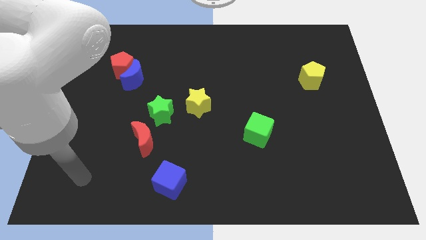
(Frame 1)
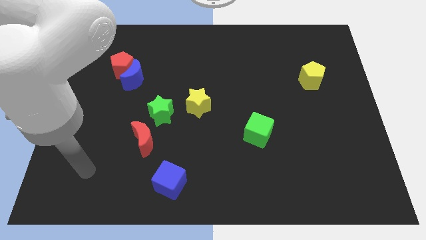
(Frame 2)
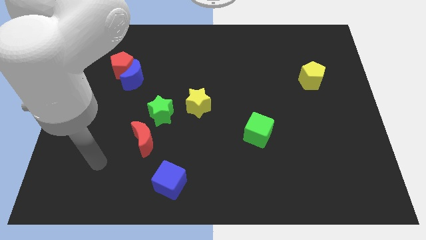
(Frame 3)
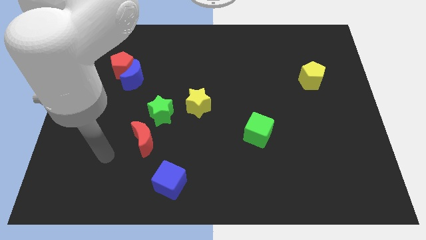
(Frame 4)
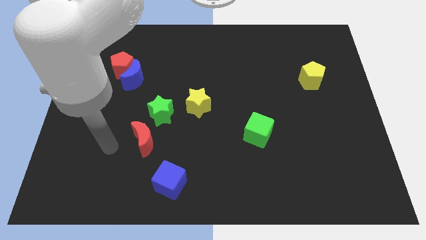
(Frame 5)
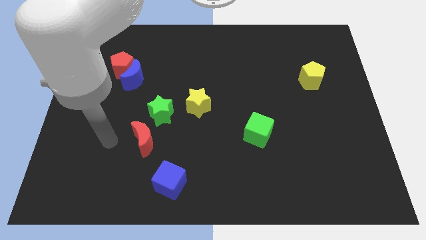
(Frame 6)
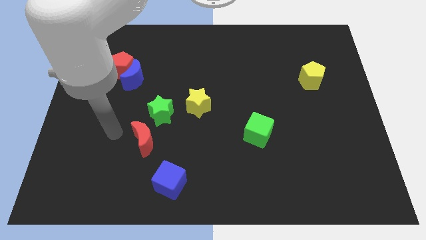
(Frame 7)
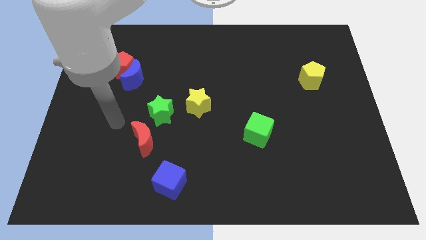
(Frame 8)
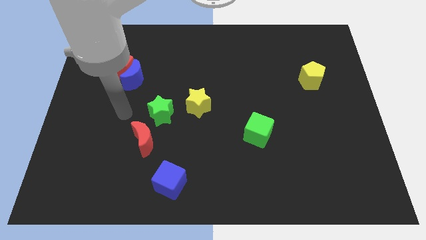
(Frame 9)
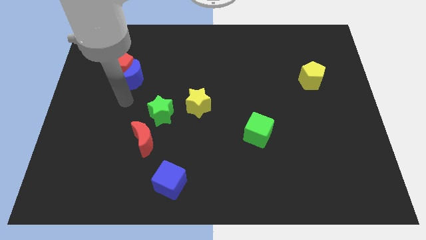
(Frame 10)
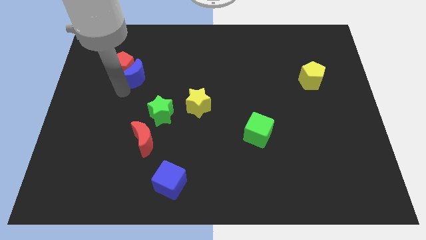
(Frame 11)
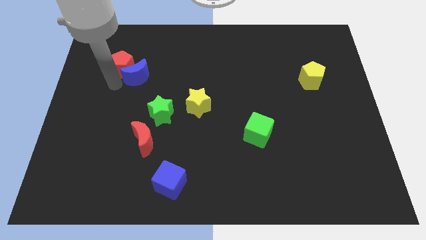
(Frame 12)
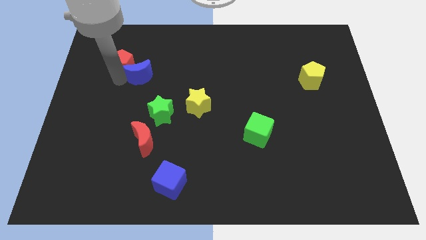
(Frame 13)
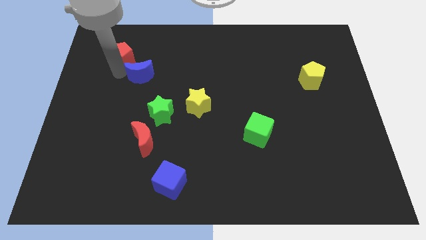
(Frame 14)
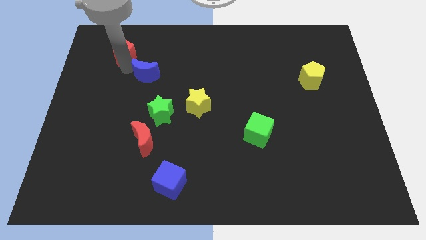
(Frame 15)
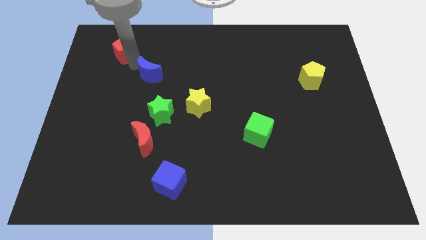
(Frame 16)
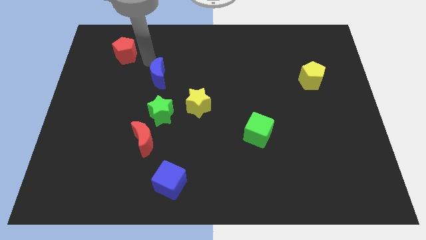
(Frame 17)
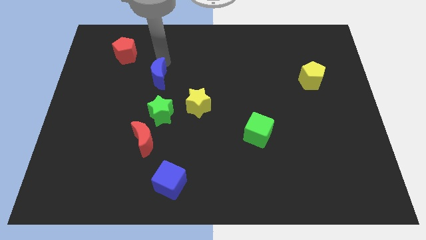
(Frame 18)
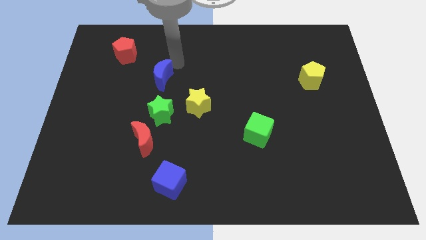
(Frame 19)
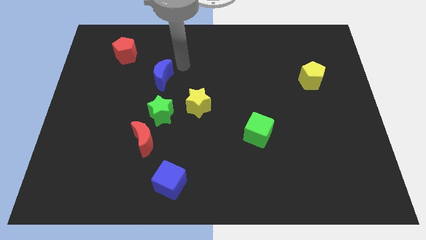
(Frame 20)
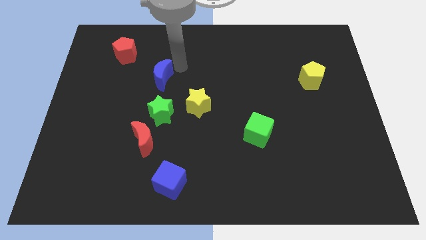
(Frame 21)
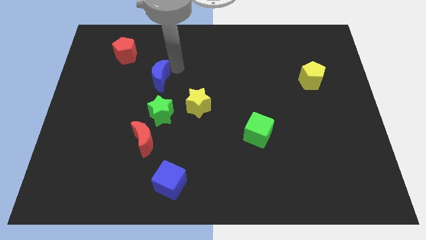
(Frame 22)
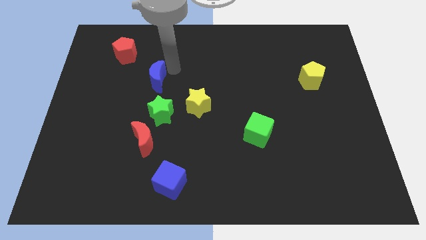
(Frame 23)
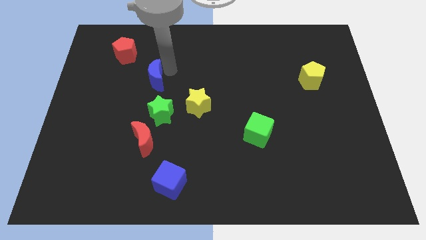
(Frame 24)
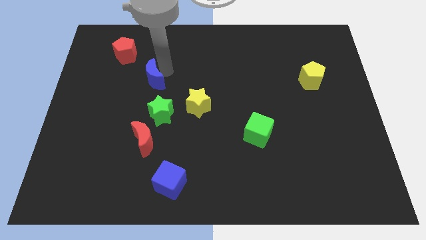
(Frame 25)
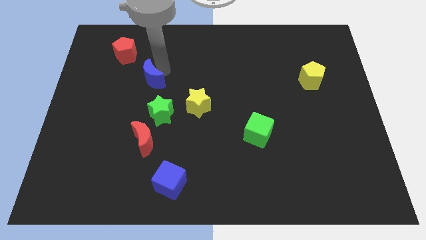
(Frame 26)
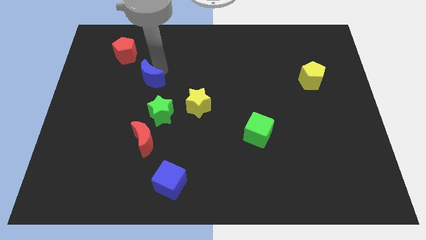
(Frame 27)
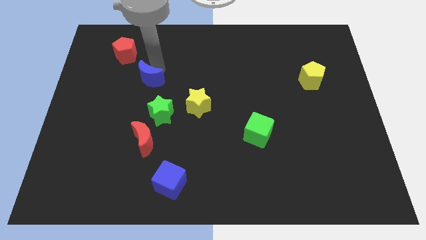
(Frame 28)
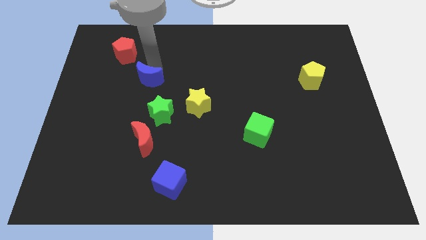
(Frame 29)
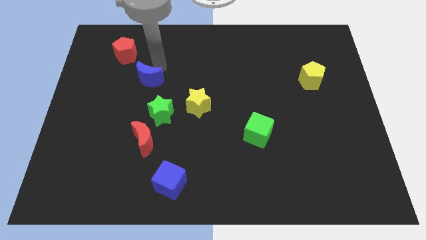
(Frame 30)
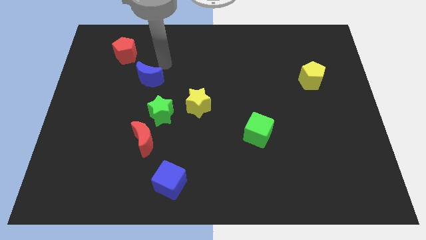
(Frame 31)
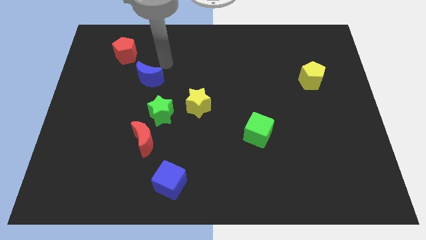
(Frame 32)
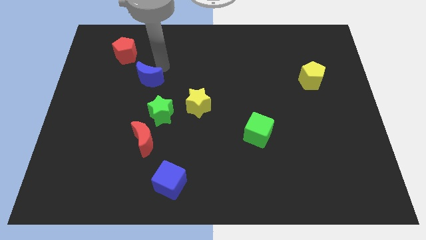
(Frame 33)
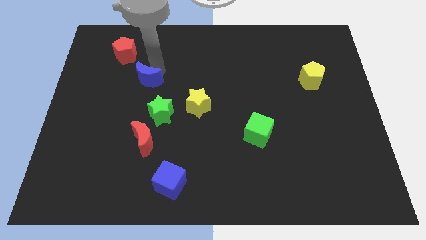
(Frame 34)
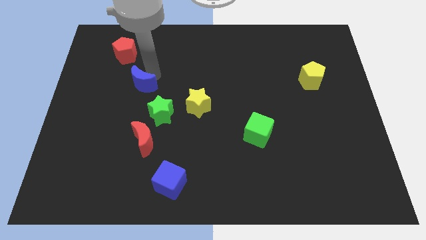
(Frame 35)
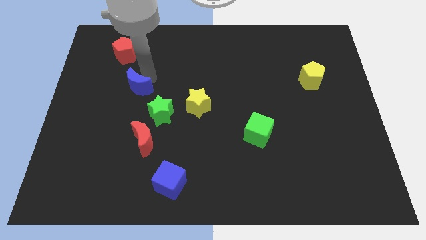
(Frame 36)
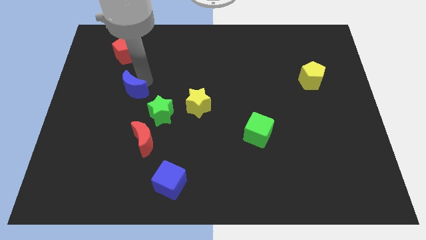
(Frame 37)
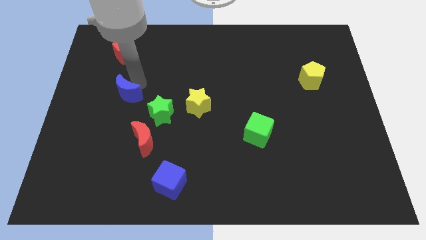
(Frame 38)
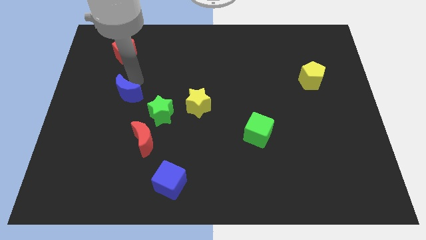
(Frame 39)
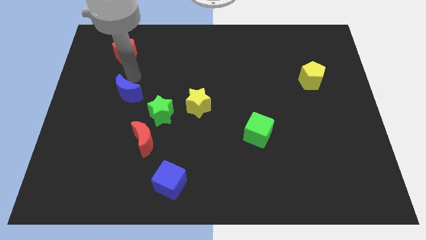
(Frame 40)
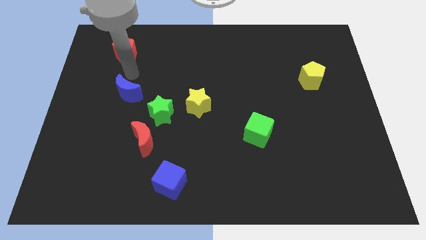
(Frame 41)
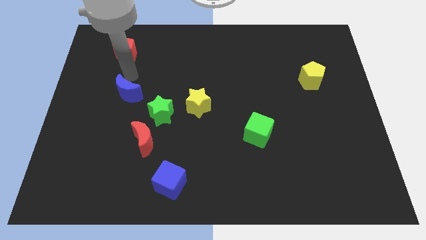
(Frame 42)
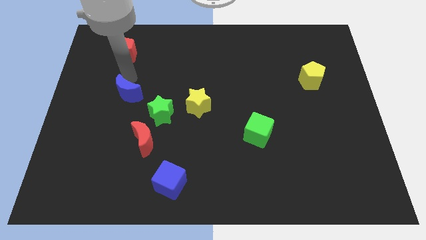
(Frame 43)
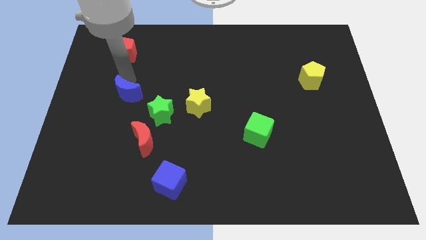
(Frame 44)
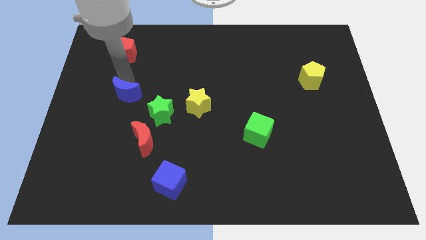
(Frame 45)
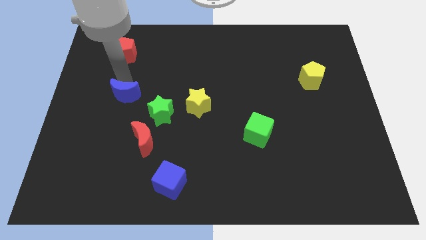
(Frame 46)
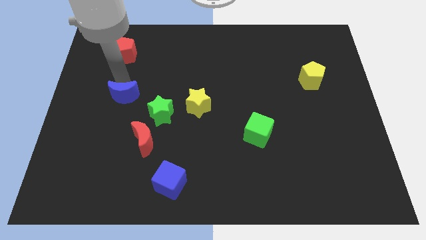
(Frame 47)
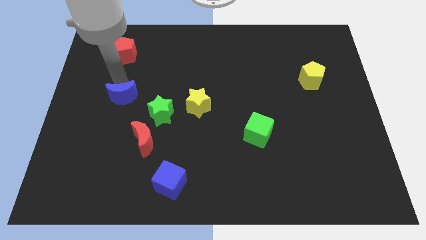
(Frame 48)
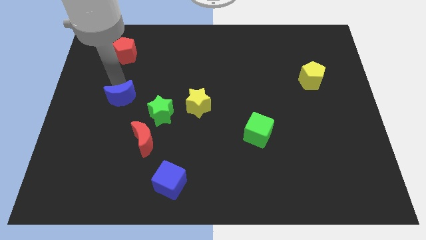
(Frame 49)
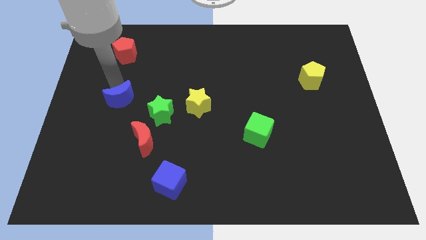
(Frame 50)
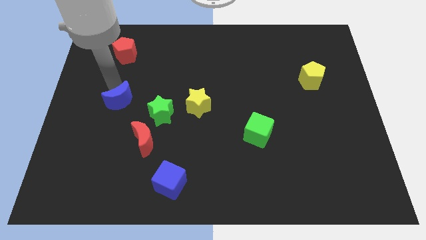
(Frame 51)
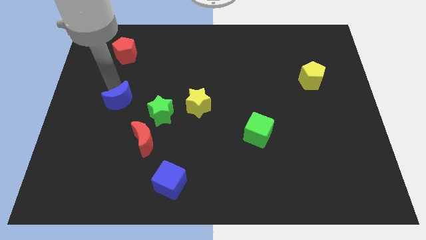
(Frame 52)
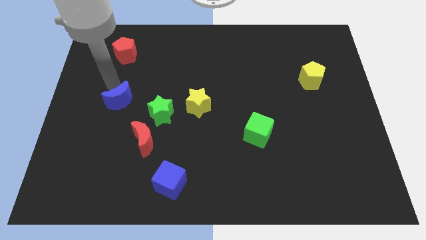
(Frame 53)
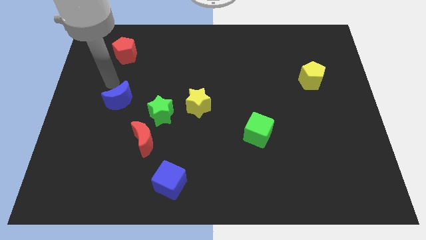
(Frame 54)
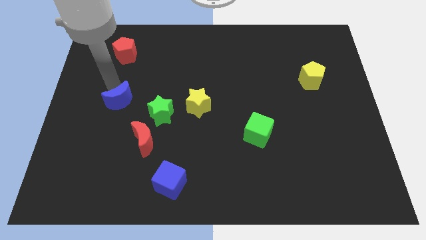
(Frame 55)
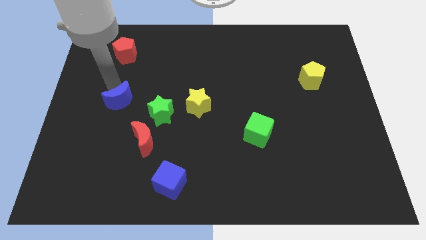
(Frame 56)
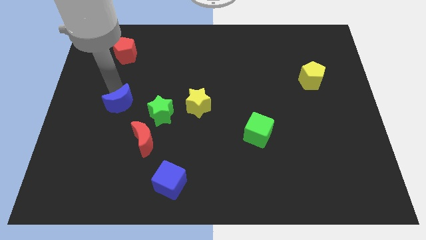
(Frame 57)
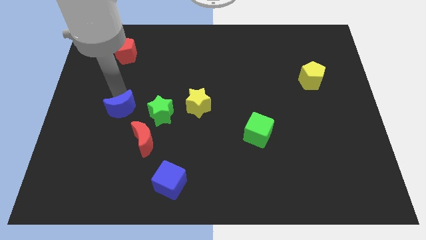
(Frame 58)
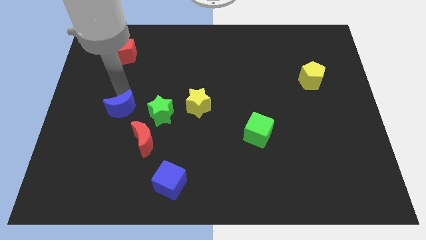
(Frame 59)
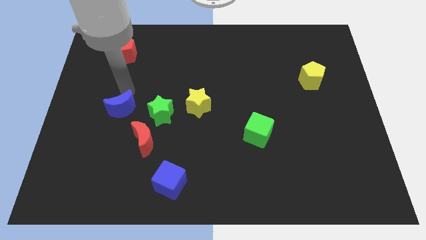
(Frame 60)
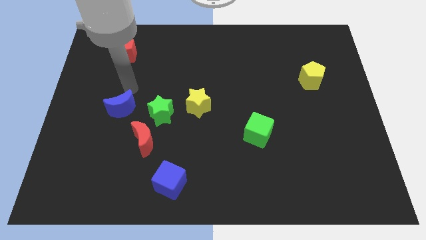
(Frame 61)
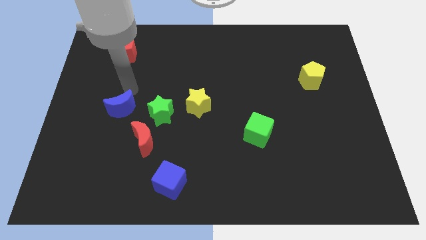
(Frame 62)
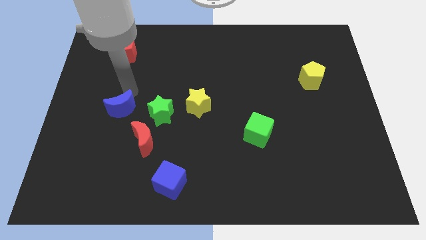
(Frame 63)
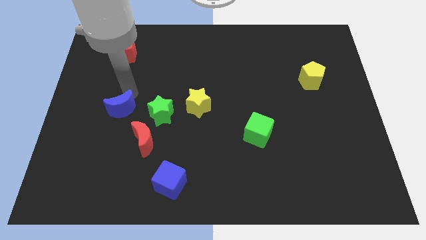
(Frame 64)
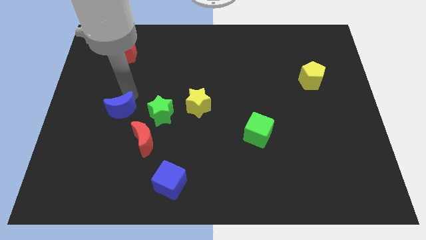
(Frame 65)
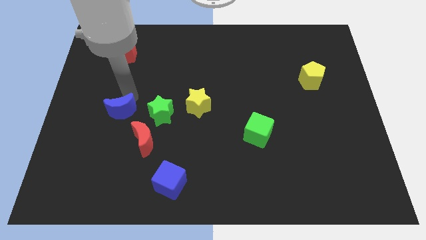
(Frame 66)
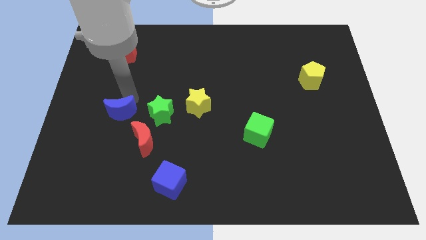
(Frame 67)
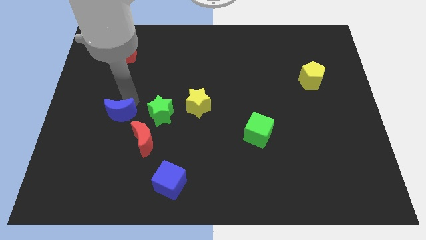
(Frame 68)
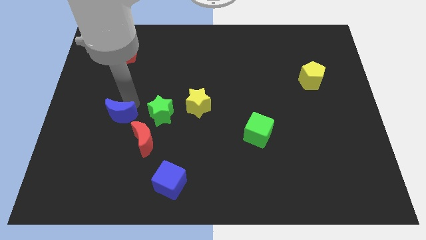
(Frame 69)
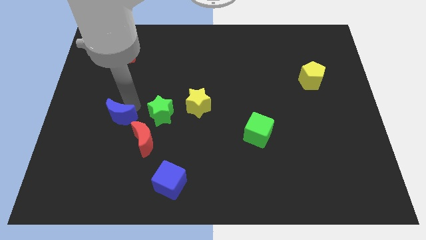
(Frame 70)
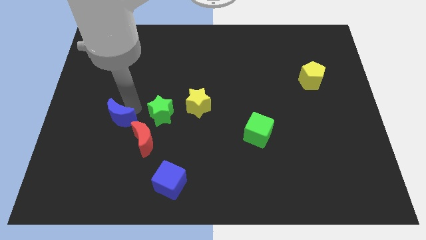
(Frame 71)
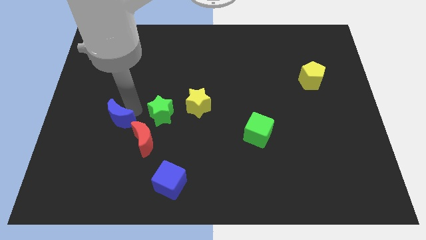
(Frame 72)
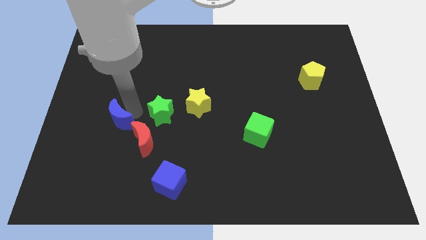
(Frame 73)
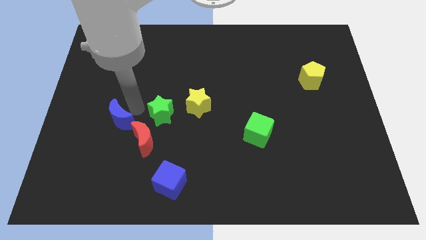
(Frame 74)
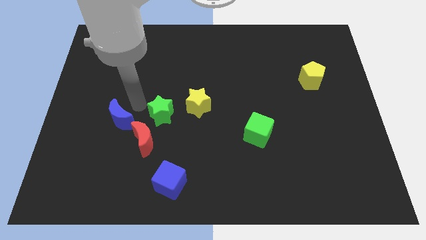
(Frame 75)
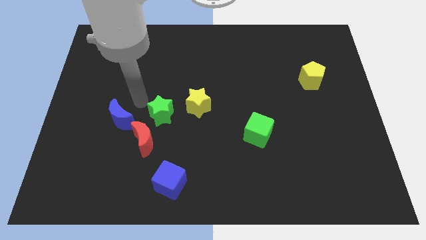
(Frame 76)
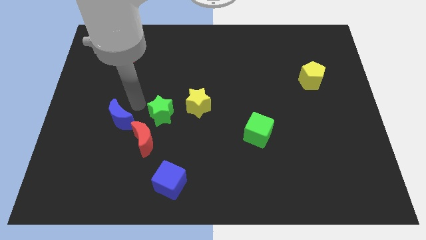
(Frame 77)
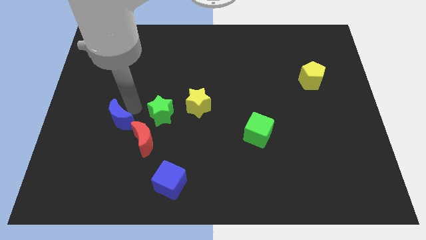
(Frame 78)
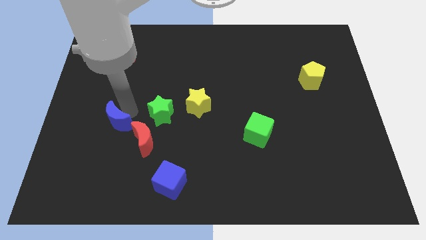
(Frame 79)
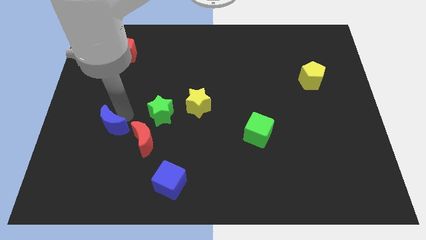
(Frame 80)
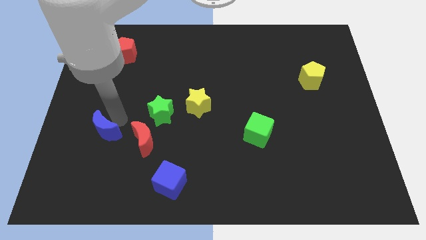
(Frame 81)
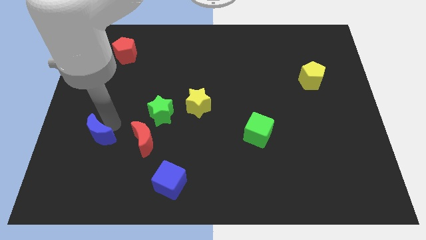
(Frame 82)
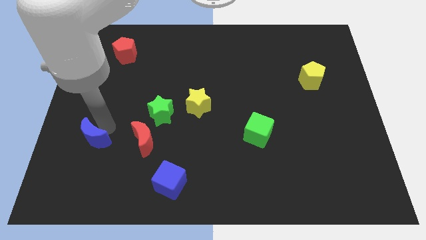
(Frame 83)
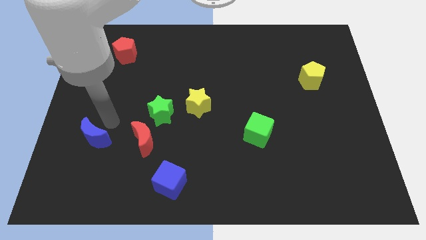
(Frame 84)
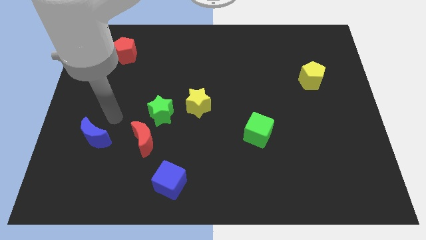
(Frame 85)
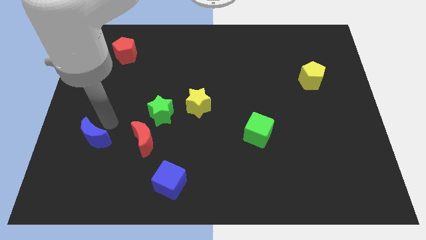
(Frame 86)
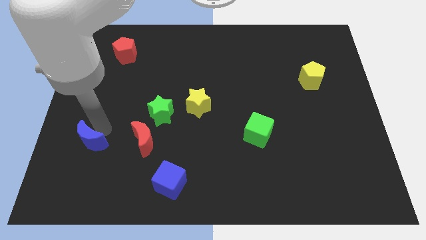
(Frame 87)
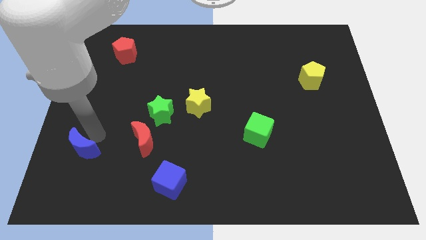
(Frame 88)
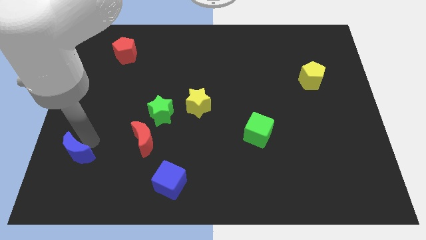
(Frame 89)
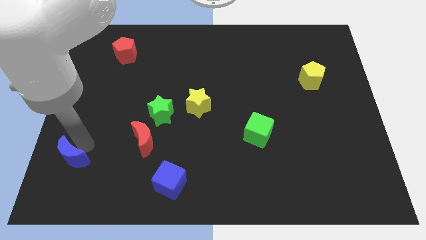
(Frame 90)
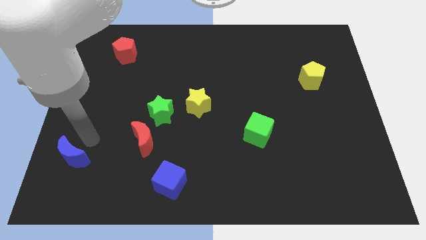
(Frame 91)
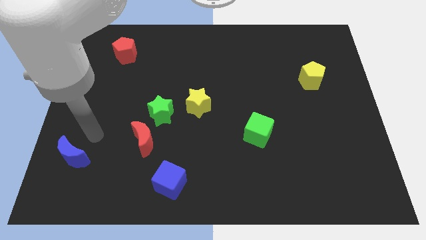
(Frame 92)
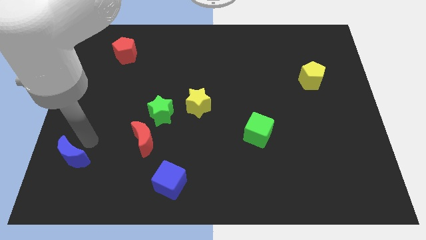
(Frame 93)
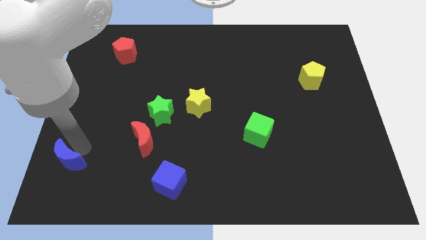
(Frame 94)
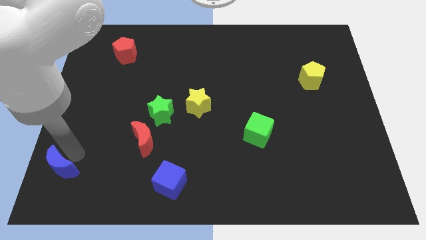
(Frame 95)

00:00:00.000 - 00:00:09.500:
put the blue moon to the lower left corner
